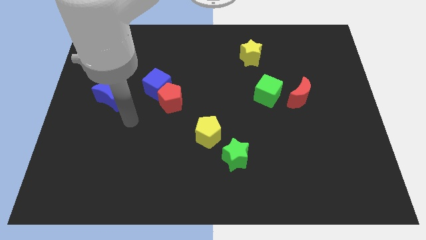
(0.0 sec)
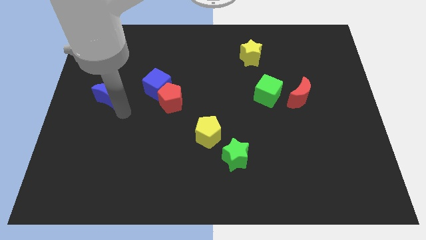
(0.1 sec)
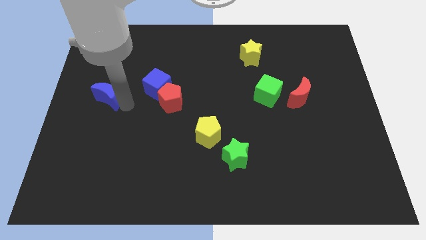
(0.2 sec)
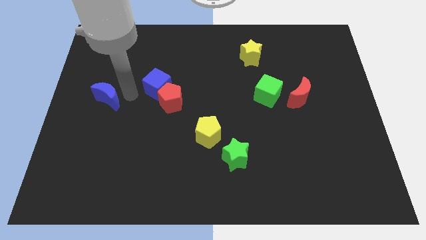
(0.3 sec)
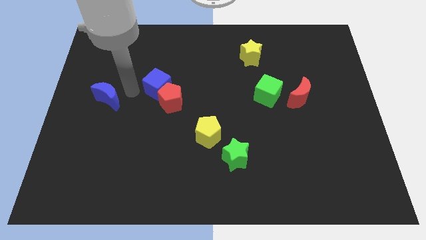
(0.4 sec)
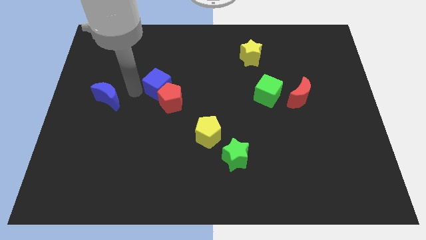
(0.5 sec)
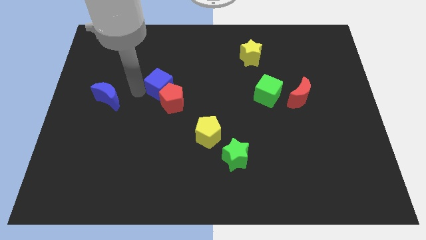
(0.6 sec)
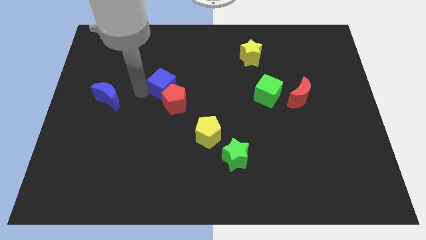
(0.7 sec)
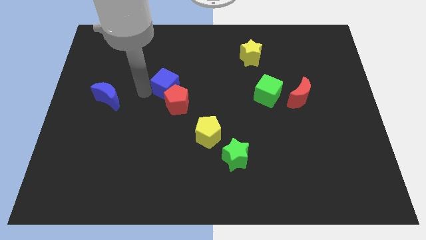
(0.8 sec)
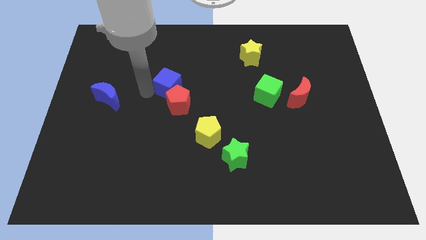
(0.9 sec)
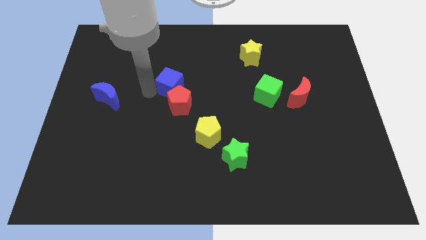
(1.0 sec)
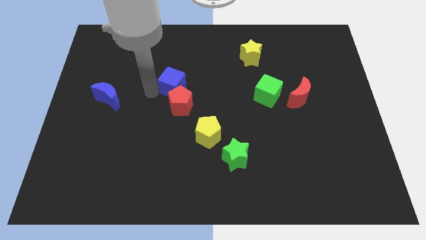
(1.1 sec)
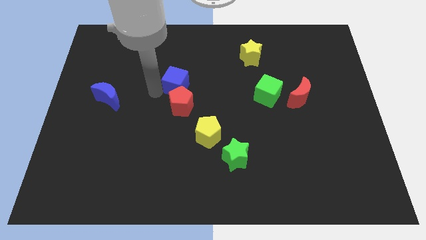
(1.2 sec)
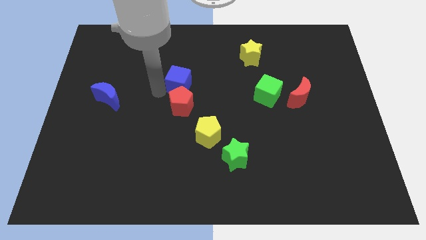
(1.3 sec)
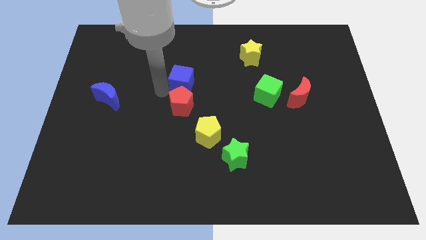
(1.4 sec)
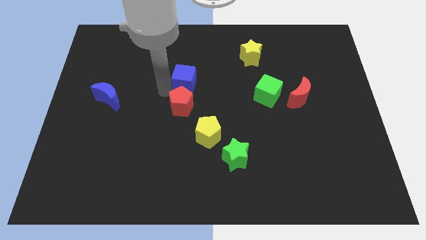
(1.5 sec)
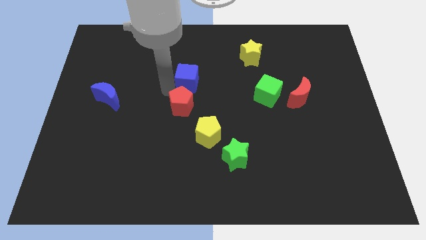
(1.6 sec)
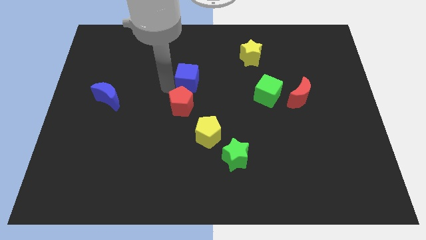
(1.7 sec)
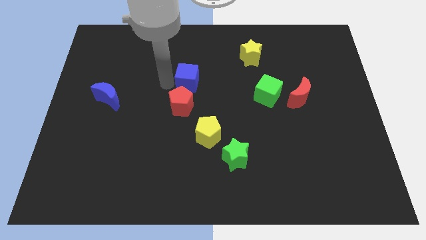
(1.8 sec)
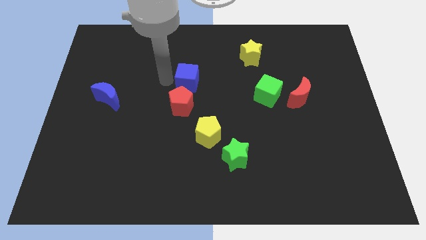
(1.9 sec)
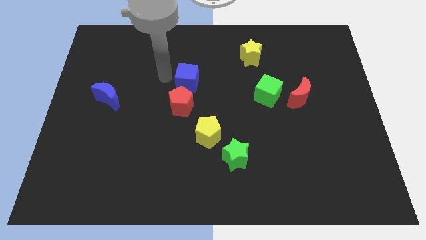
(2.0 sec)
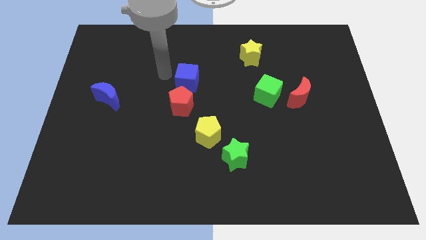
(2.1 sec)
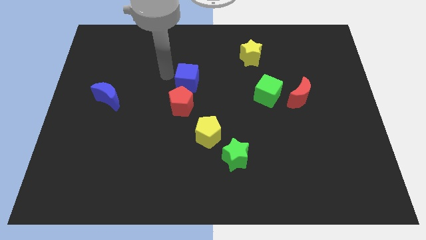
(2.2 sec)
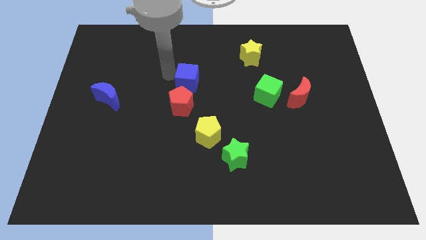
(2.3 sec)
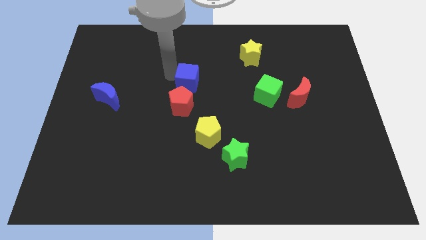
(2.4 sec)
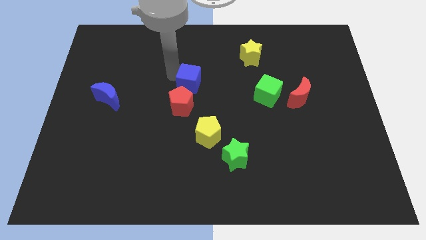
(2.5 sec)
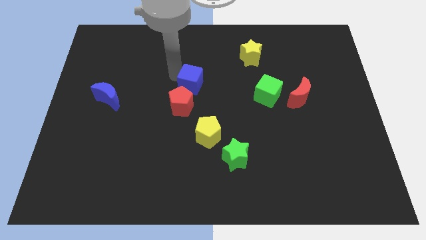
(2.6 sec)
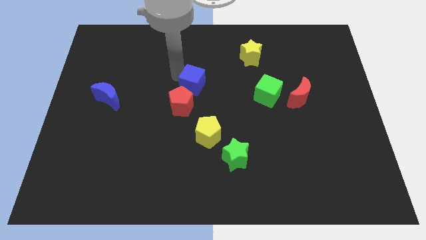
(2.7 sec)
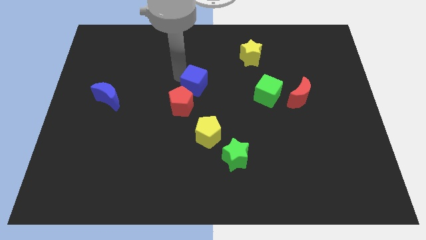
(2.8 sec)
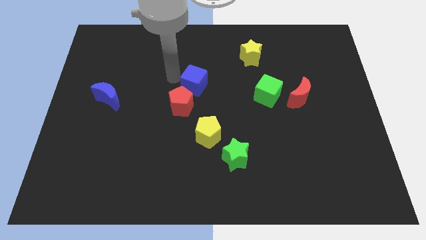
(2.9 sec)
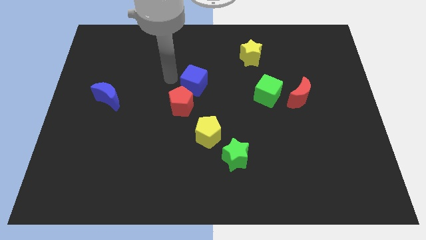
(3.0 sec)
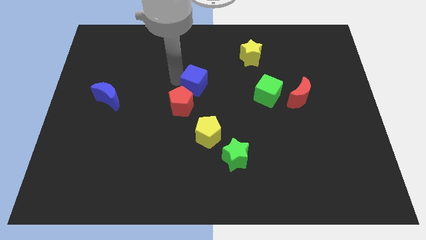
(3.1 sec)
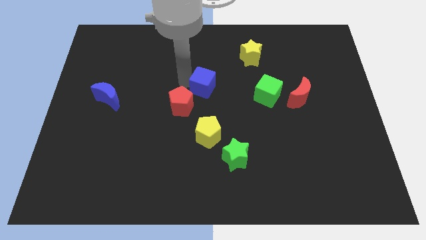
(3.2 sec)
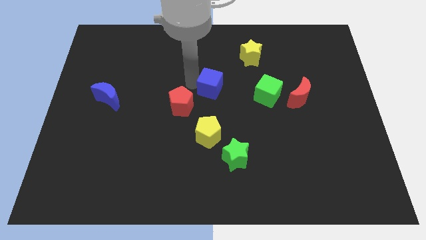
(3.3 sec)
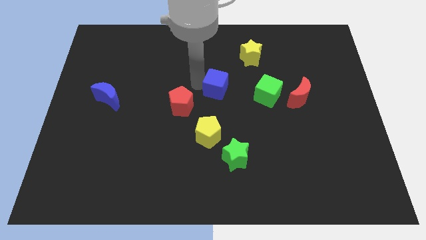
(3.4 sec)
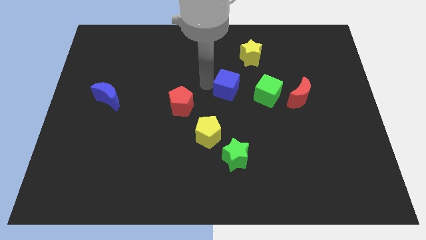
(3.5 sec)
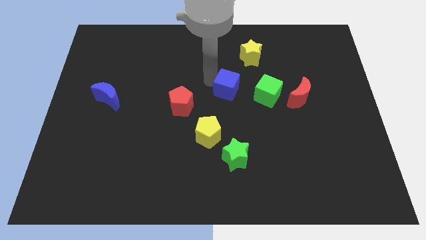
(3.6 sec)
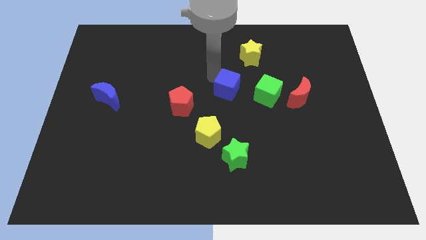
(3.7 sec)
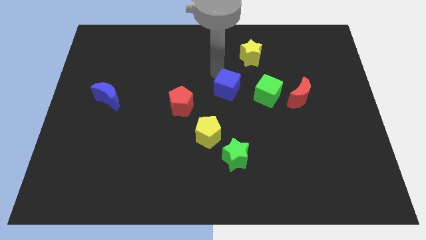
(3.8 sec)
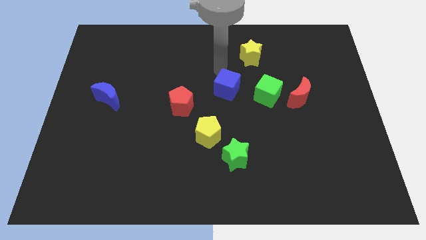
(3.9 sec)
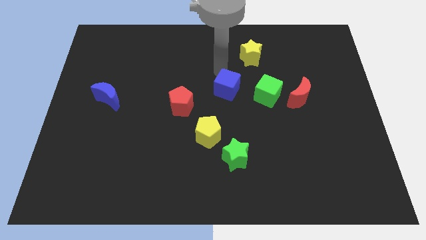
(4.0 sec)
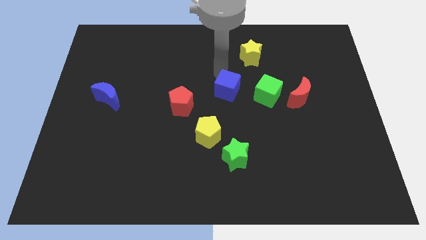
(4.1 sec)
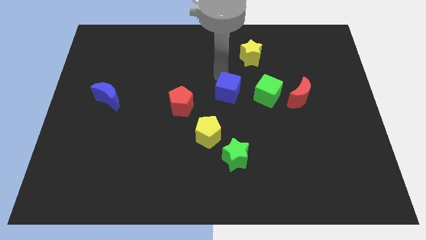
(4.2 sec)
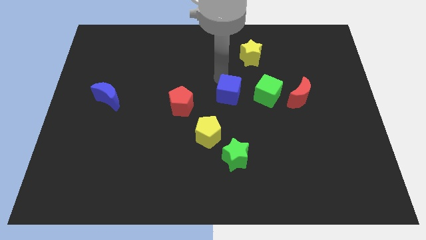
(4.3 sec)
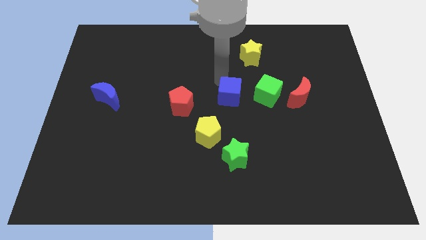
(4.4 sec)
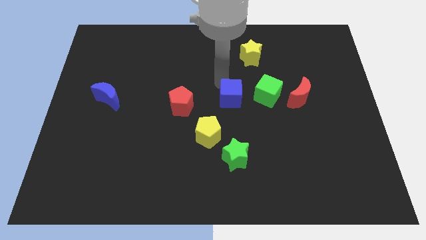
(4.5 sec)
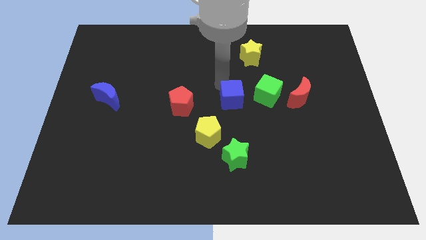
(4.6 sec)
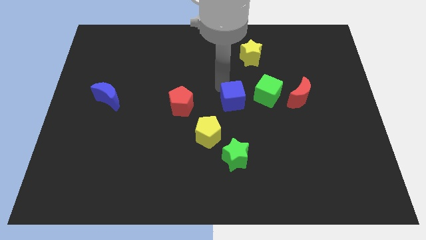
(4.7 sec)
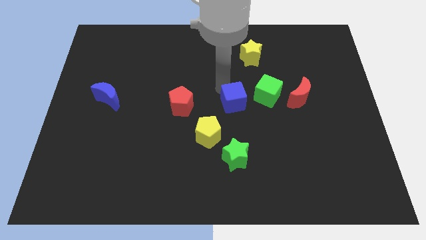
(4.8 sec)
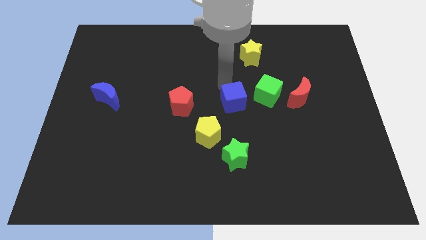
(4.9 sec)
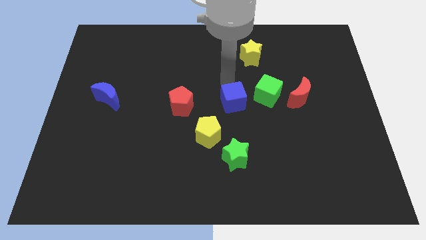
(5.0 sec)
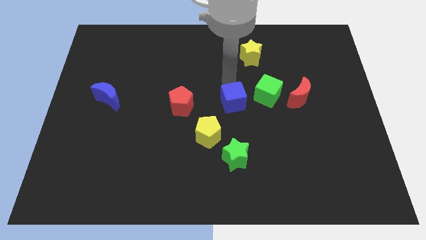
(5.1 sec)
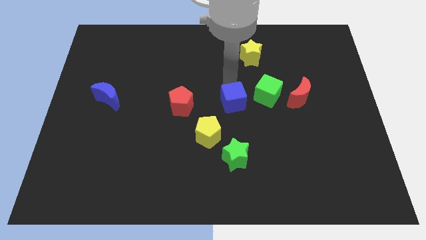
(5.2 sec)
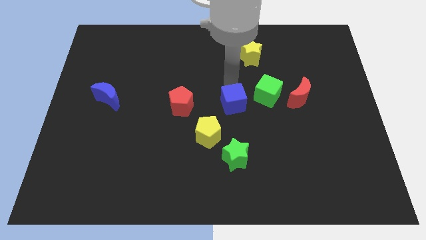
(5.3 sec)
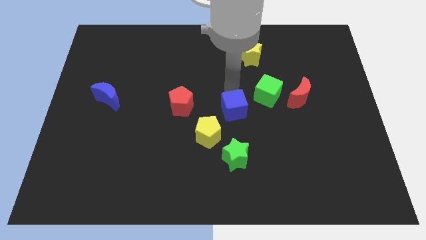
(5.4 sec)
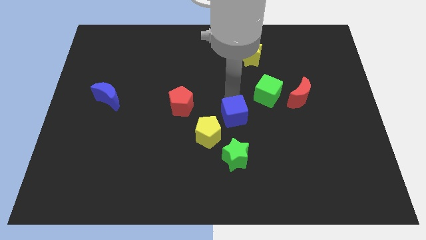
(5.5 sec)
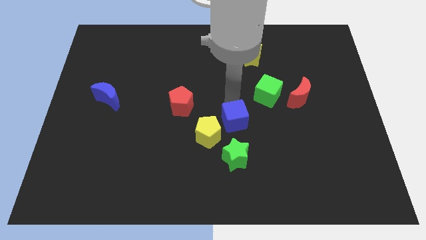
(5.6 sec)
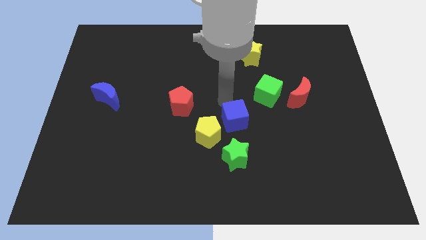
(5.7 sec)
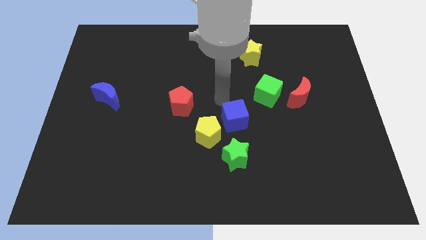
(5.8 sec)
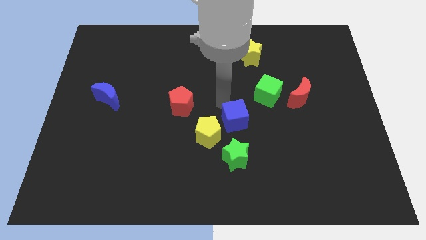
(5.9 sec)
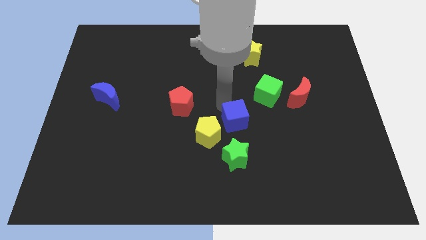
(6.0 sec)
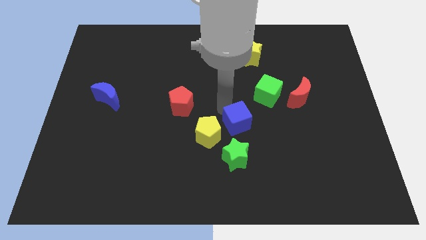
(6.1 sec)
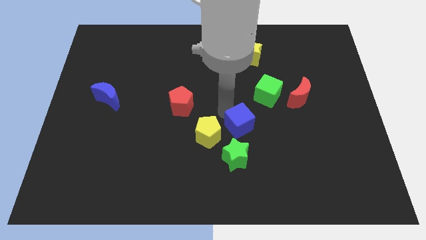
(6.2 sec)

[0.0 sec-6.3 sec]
slide the blue cube down and right diagonally

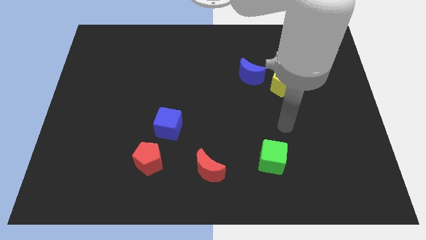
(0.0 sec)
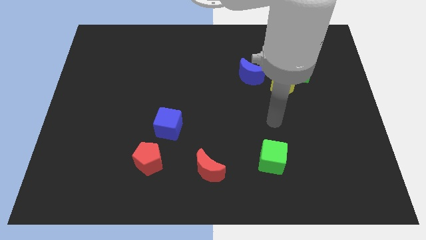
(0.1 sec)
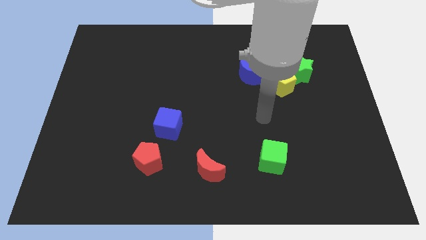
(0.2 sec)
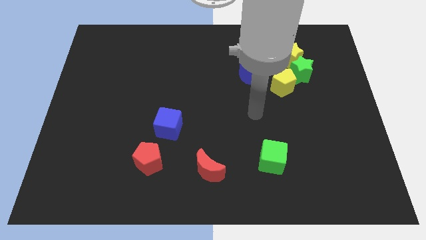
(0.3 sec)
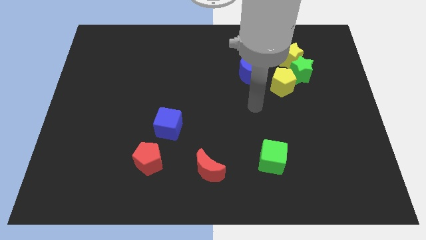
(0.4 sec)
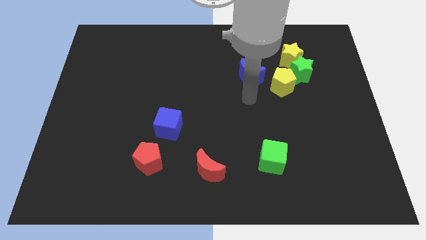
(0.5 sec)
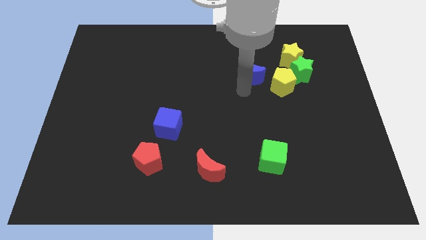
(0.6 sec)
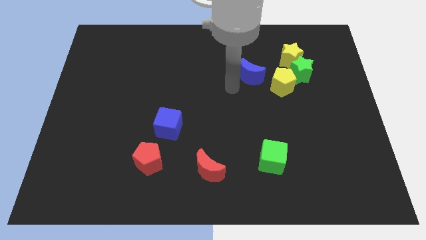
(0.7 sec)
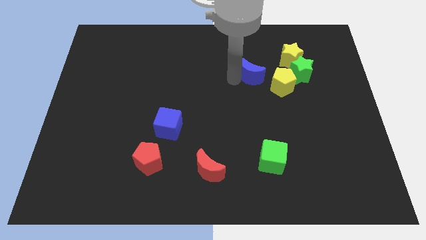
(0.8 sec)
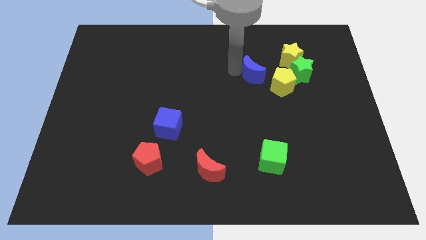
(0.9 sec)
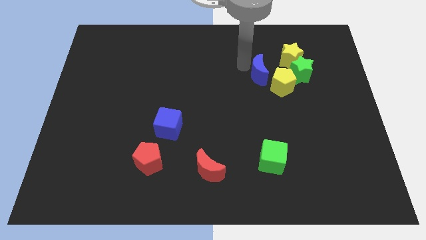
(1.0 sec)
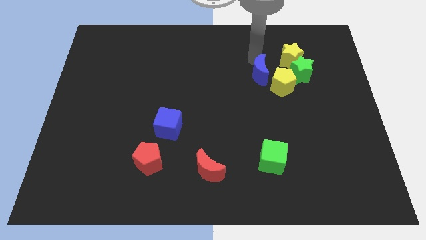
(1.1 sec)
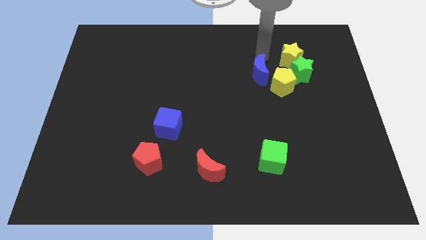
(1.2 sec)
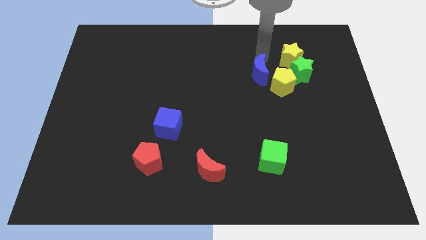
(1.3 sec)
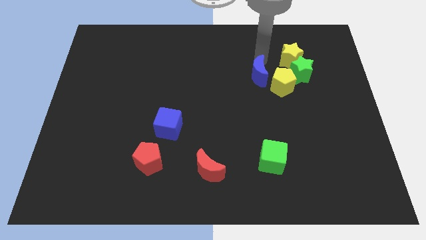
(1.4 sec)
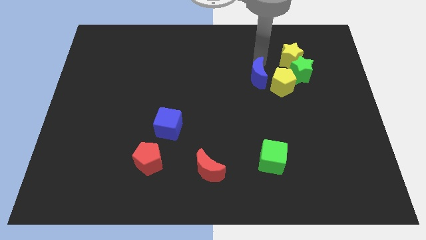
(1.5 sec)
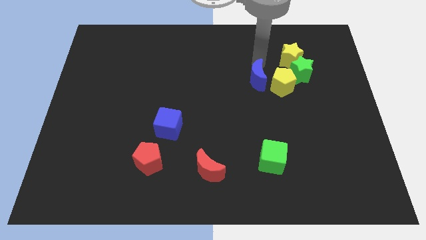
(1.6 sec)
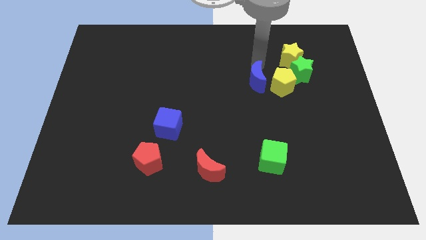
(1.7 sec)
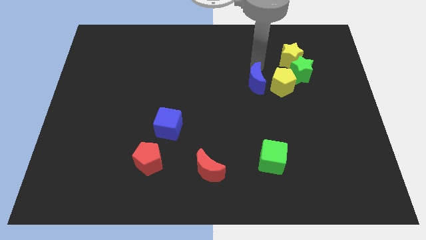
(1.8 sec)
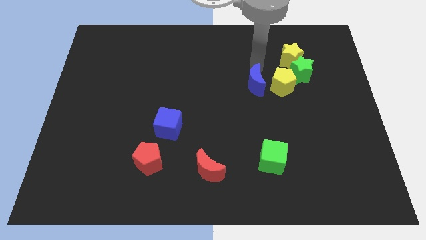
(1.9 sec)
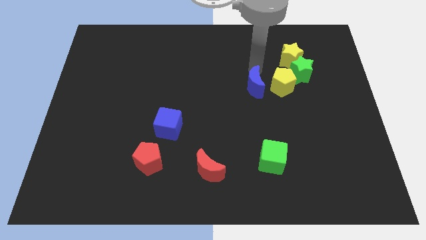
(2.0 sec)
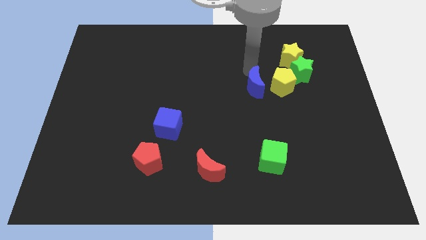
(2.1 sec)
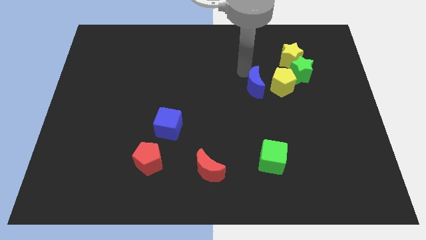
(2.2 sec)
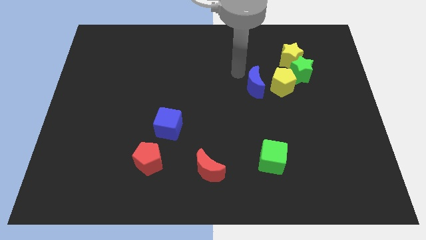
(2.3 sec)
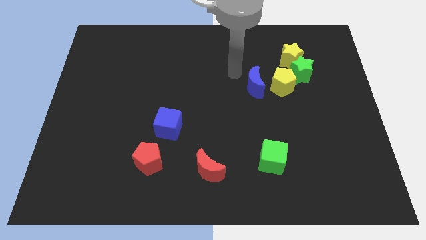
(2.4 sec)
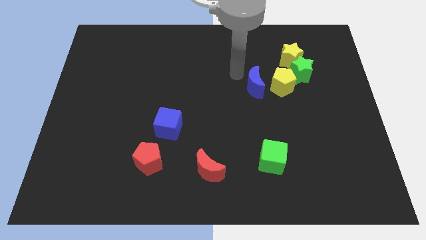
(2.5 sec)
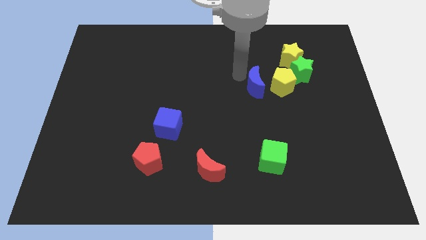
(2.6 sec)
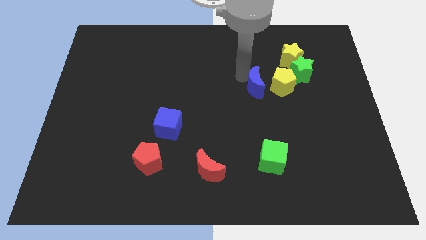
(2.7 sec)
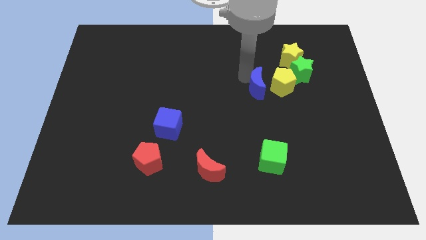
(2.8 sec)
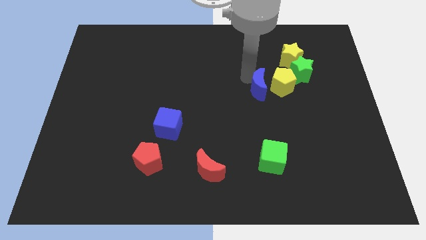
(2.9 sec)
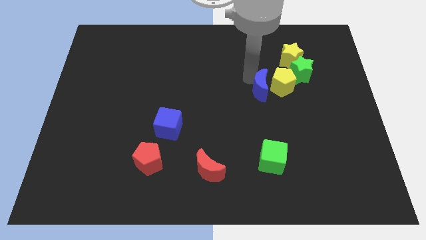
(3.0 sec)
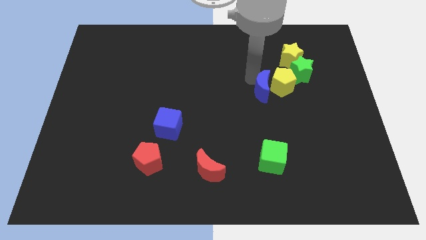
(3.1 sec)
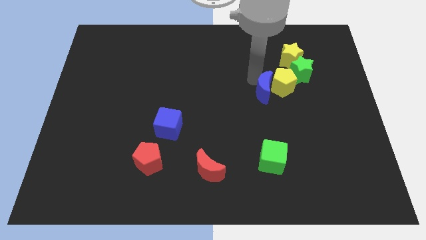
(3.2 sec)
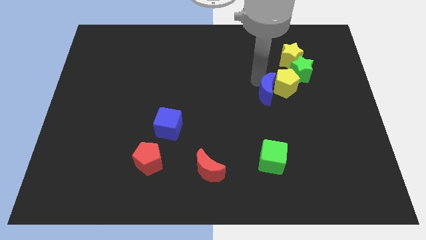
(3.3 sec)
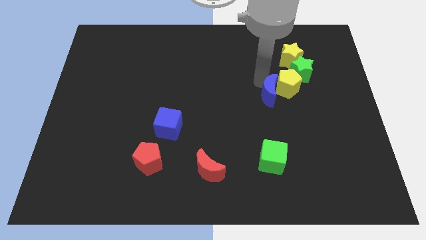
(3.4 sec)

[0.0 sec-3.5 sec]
slightly push the blue moon diagonally downwards and to the right
